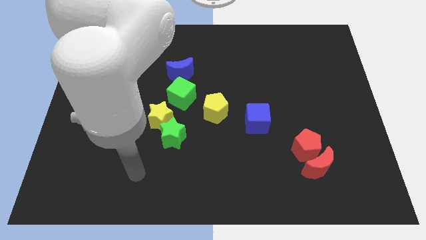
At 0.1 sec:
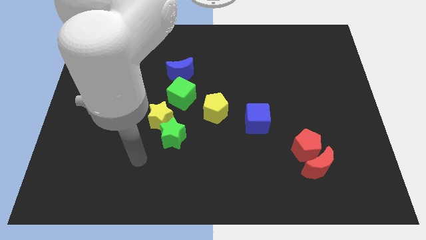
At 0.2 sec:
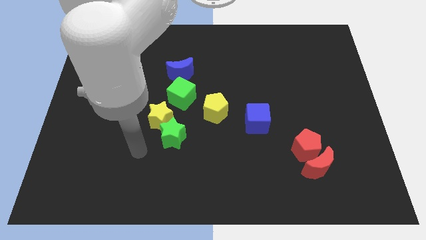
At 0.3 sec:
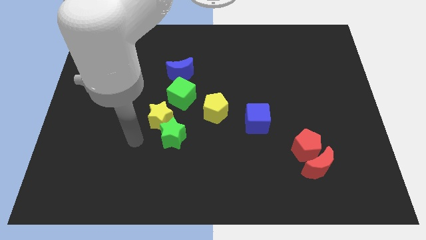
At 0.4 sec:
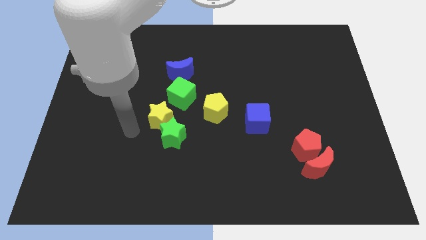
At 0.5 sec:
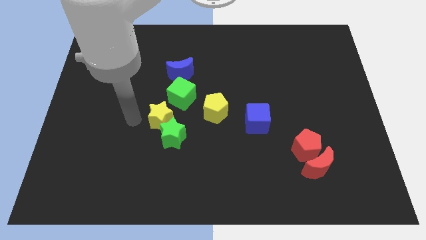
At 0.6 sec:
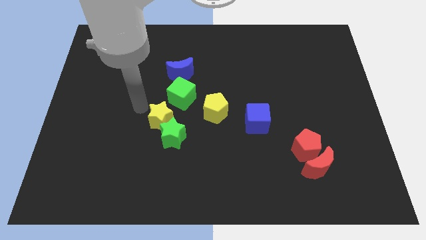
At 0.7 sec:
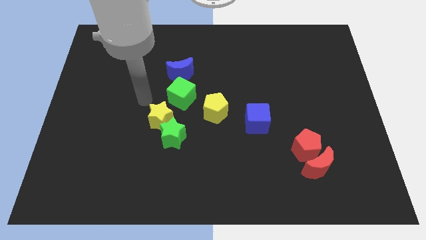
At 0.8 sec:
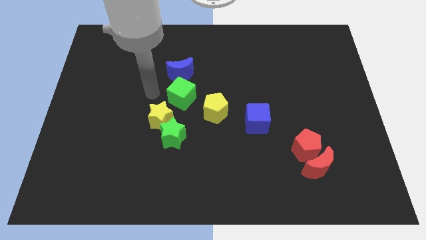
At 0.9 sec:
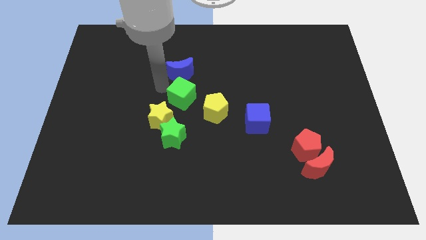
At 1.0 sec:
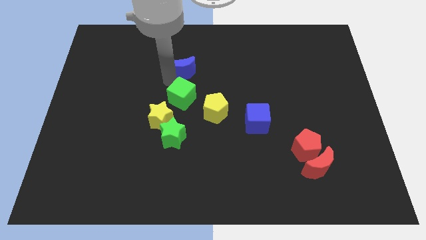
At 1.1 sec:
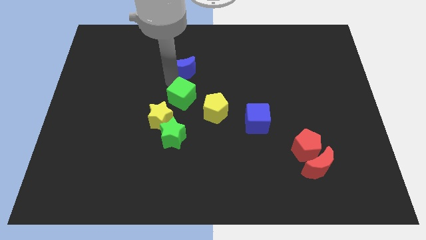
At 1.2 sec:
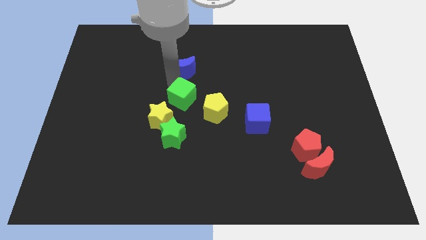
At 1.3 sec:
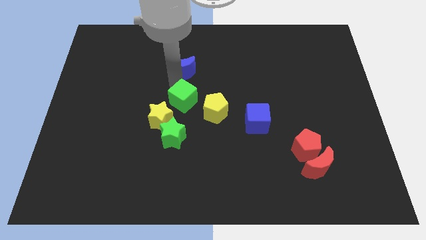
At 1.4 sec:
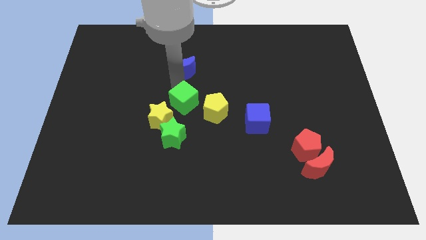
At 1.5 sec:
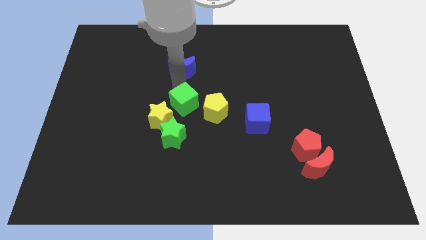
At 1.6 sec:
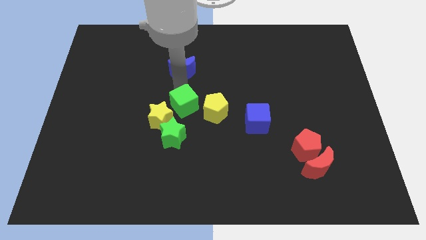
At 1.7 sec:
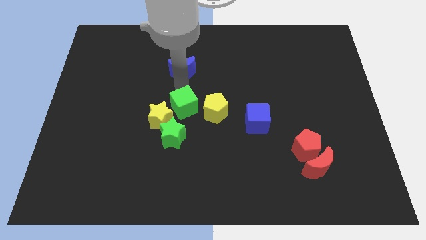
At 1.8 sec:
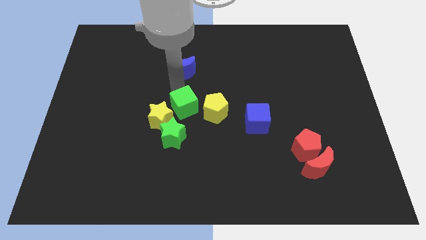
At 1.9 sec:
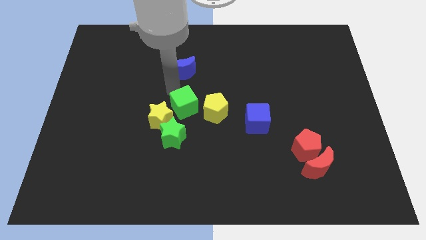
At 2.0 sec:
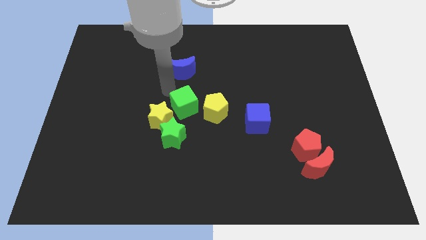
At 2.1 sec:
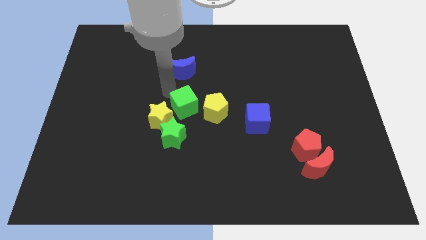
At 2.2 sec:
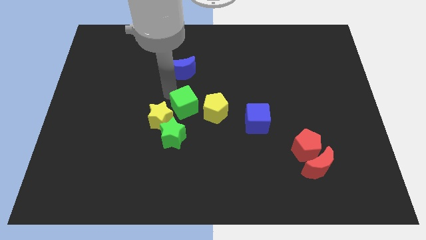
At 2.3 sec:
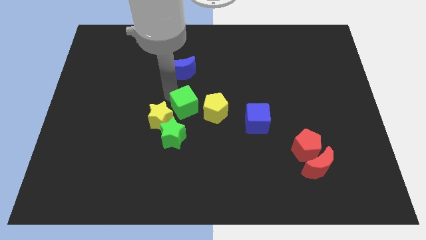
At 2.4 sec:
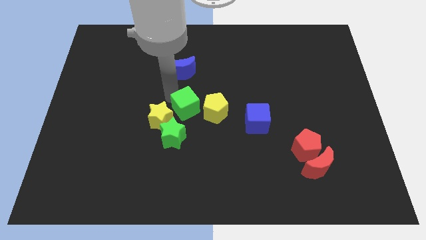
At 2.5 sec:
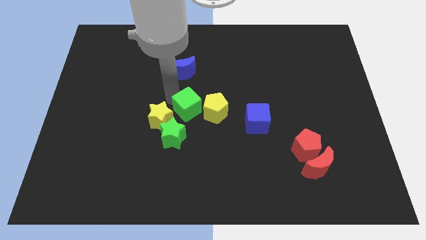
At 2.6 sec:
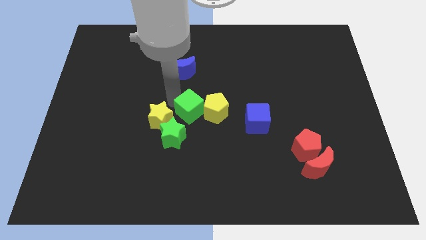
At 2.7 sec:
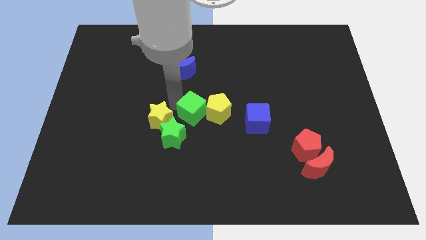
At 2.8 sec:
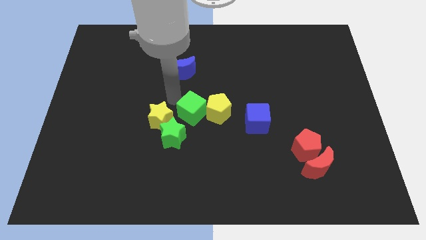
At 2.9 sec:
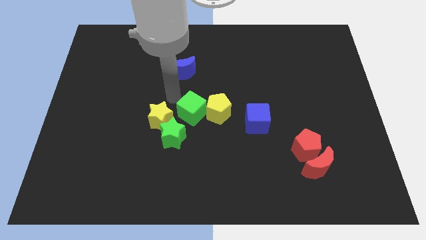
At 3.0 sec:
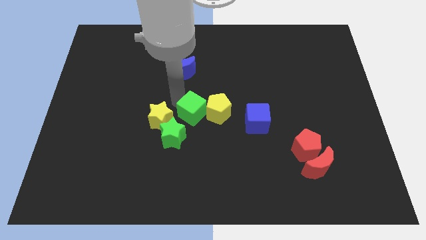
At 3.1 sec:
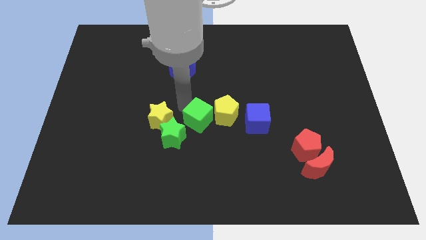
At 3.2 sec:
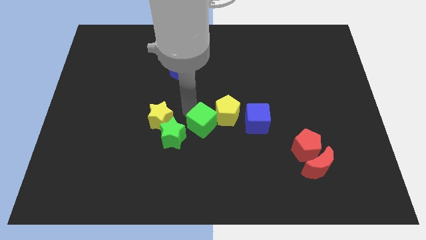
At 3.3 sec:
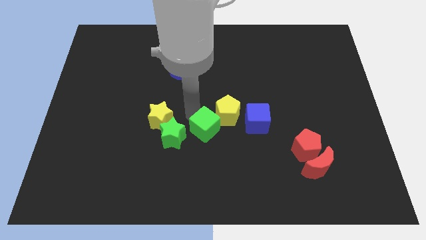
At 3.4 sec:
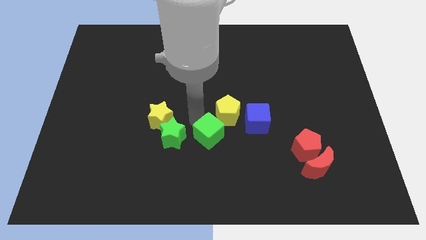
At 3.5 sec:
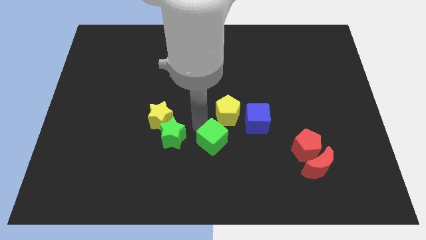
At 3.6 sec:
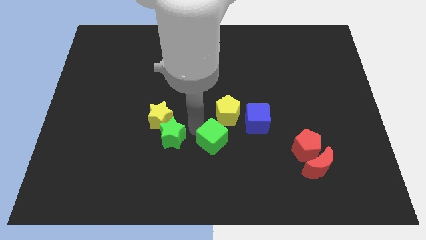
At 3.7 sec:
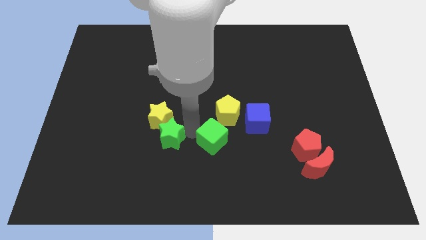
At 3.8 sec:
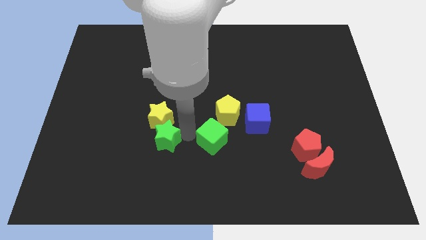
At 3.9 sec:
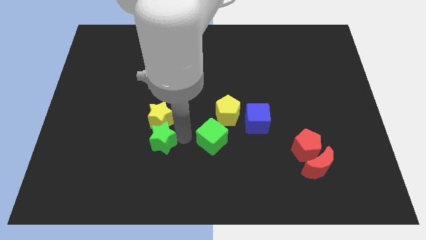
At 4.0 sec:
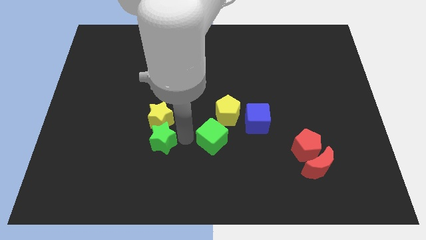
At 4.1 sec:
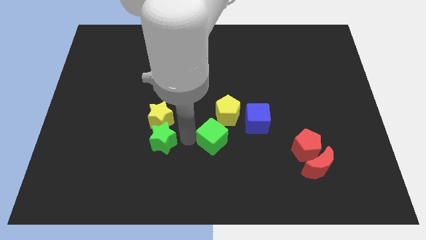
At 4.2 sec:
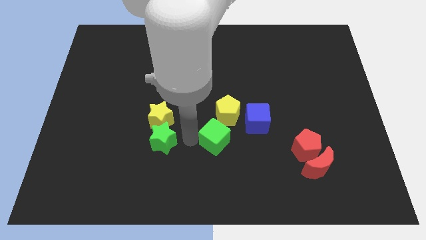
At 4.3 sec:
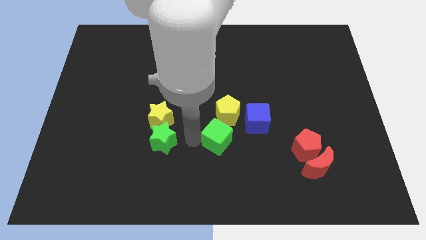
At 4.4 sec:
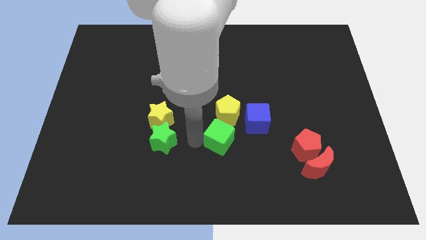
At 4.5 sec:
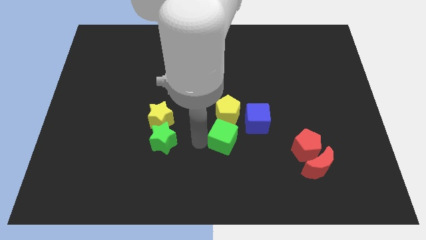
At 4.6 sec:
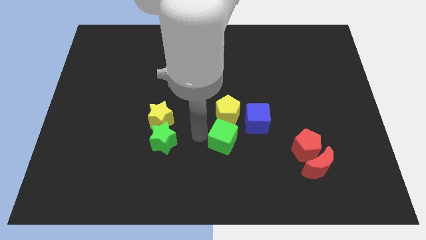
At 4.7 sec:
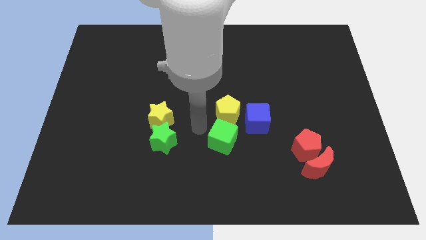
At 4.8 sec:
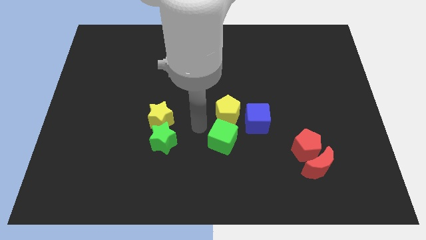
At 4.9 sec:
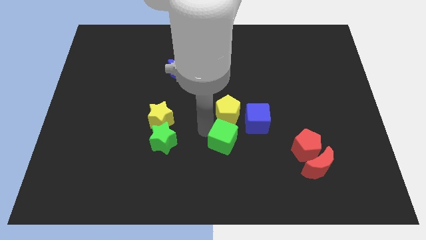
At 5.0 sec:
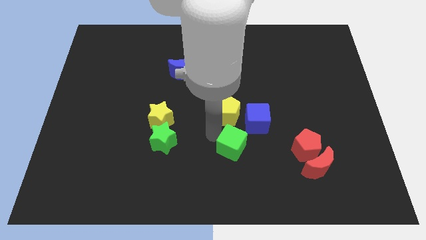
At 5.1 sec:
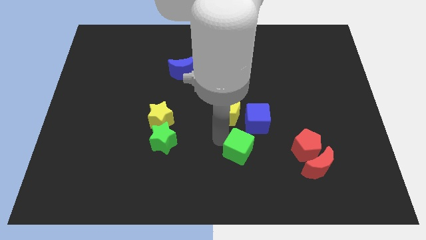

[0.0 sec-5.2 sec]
slide the green cube below the blue cube

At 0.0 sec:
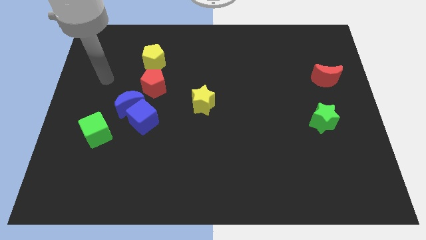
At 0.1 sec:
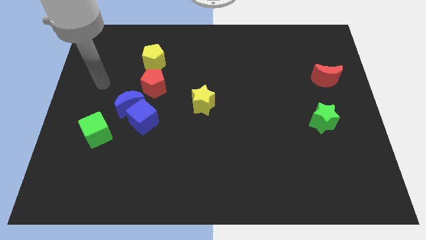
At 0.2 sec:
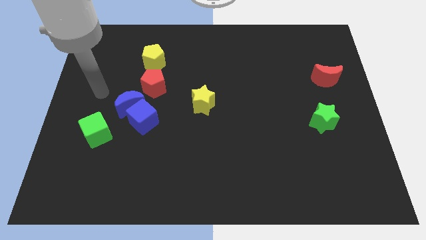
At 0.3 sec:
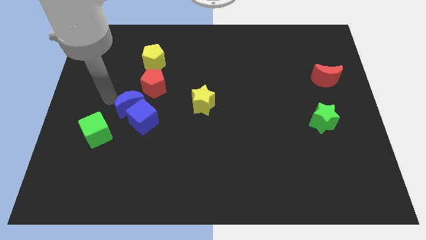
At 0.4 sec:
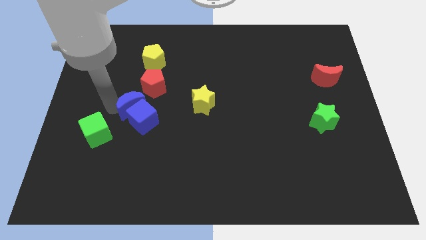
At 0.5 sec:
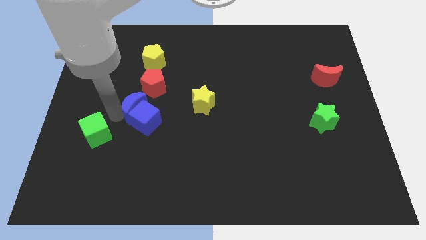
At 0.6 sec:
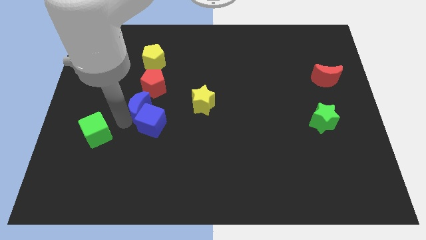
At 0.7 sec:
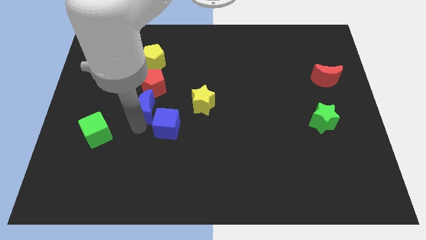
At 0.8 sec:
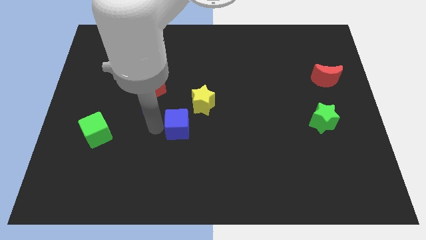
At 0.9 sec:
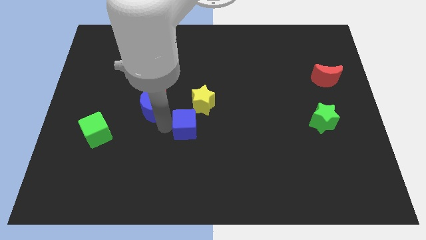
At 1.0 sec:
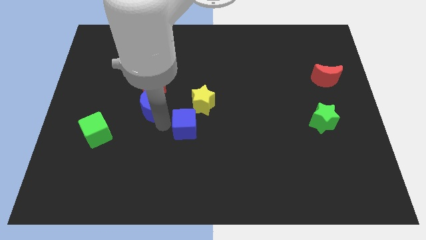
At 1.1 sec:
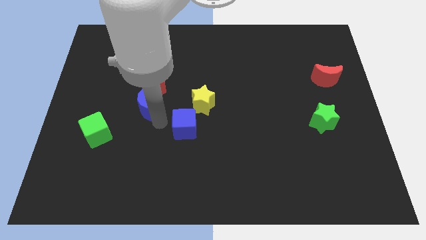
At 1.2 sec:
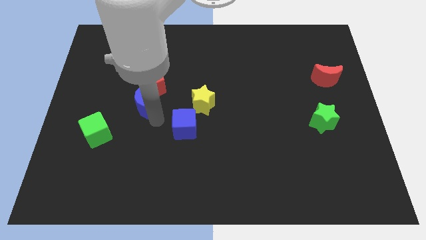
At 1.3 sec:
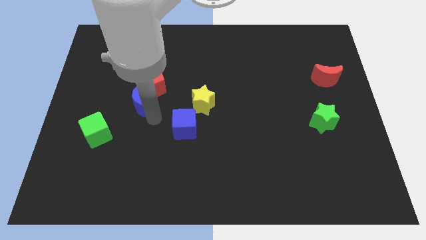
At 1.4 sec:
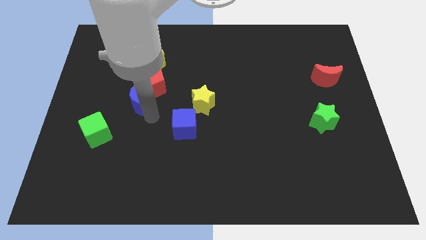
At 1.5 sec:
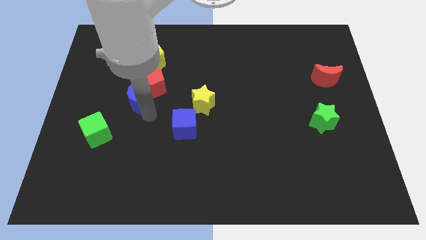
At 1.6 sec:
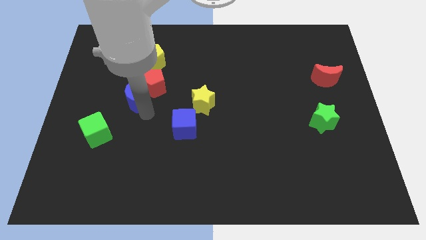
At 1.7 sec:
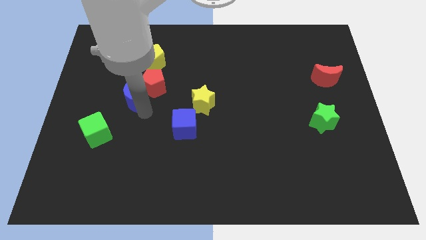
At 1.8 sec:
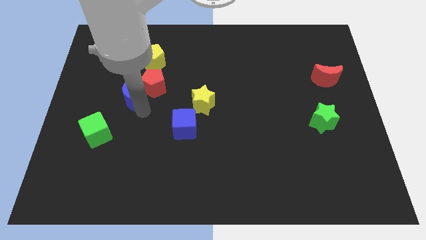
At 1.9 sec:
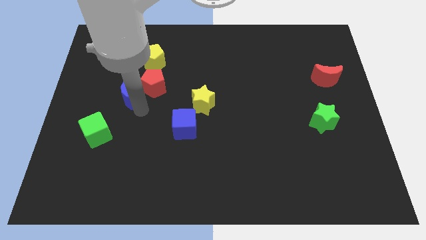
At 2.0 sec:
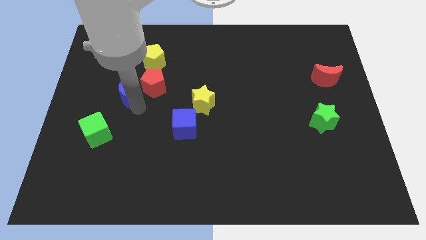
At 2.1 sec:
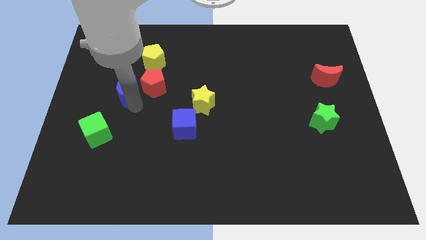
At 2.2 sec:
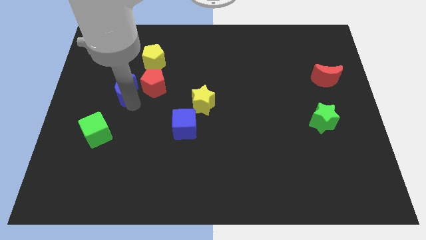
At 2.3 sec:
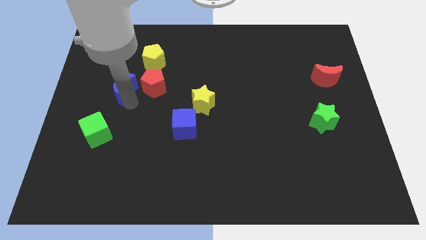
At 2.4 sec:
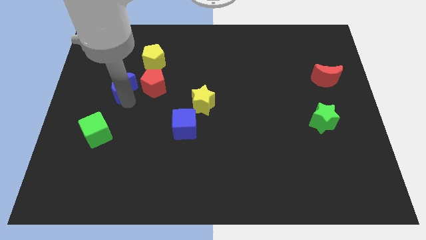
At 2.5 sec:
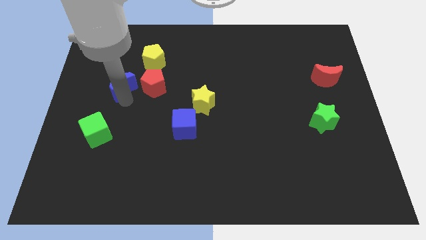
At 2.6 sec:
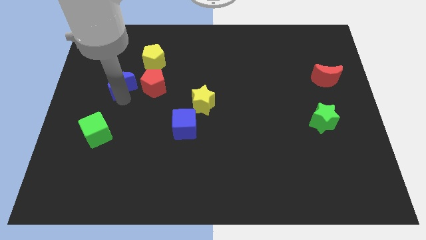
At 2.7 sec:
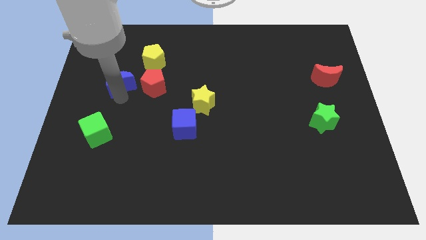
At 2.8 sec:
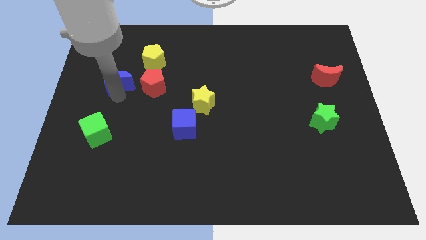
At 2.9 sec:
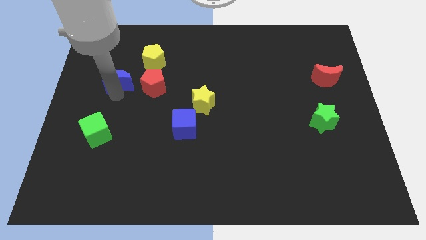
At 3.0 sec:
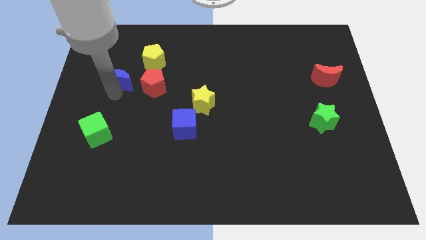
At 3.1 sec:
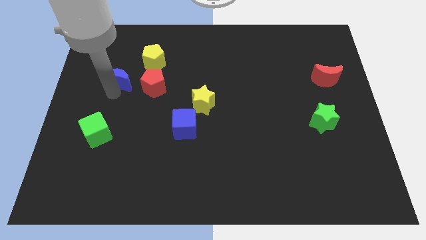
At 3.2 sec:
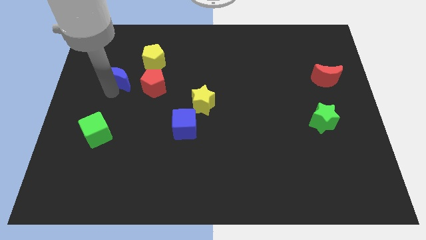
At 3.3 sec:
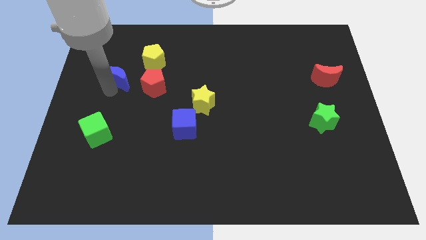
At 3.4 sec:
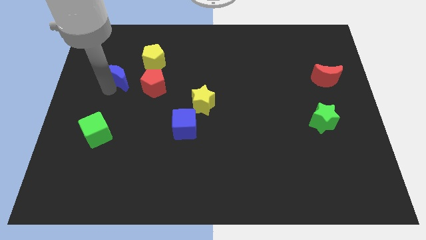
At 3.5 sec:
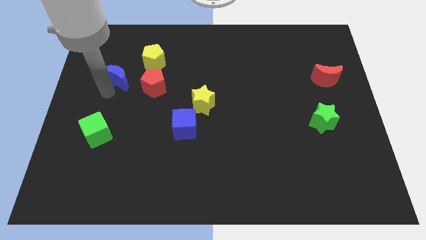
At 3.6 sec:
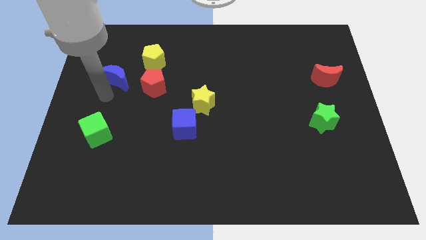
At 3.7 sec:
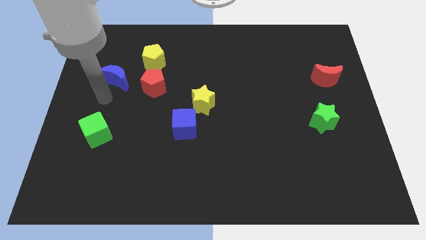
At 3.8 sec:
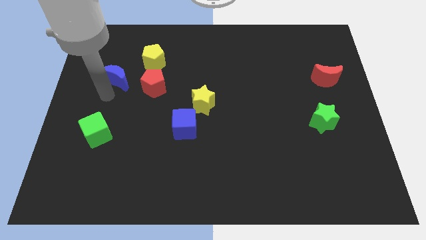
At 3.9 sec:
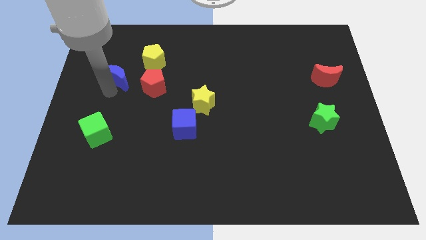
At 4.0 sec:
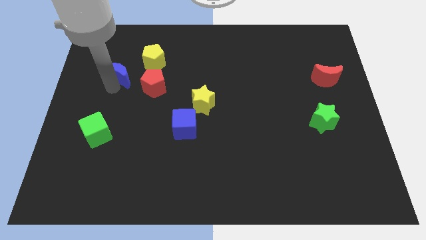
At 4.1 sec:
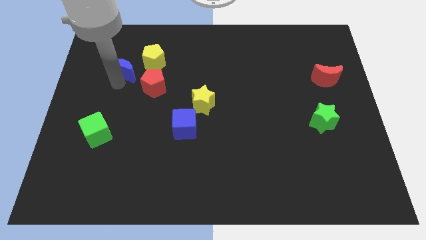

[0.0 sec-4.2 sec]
slide the blue moon to the left side of the yellow pentagon
